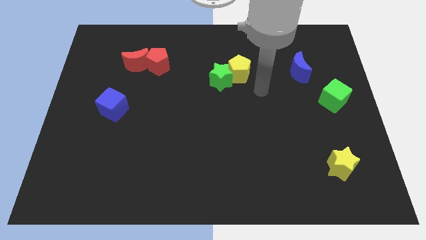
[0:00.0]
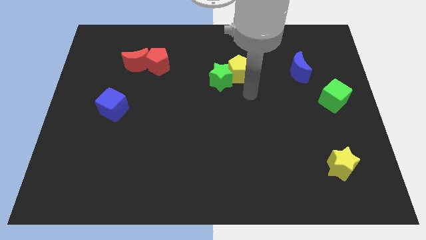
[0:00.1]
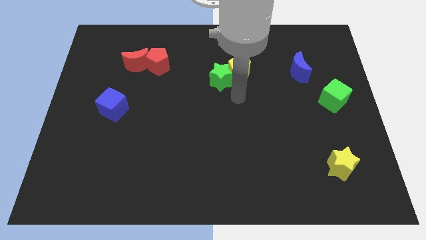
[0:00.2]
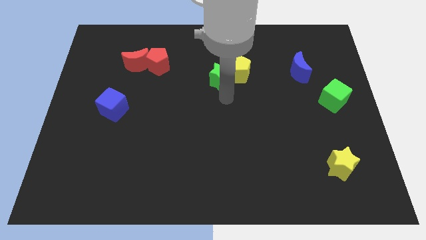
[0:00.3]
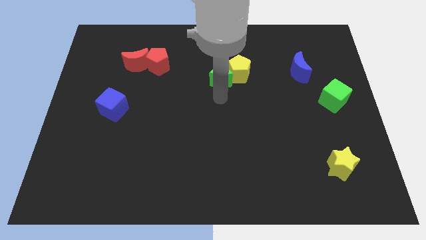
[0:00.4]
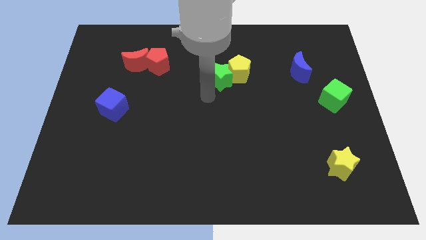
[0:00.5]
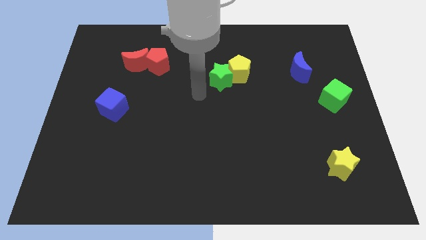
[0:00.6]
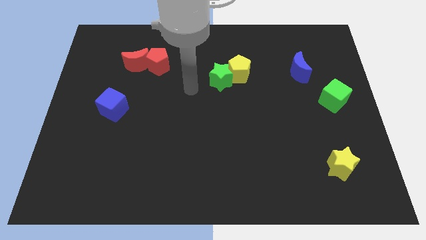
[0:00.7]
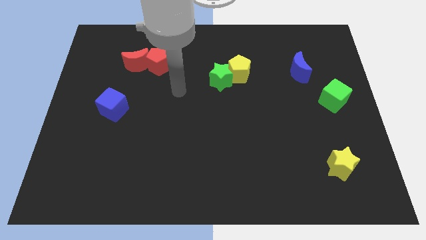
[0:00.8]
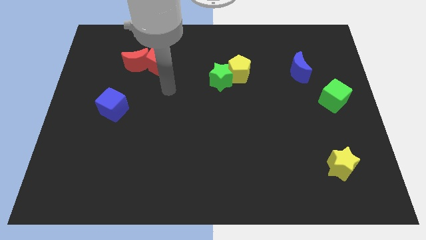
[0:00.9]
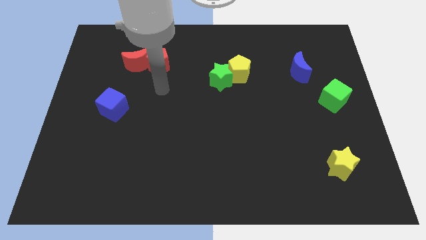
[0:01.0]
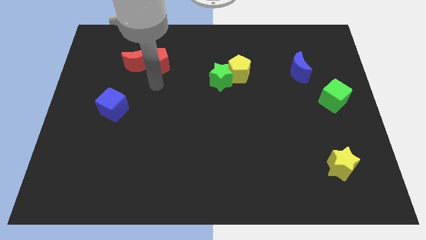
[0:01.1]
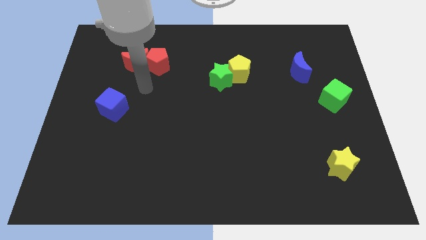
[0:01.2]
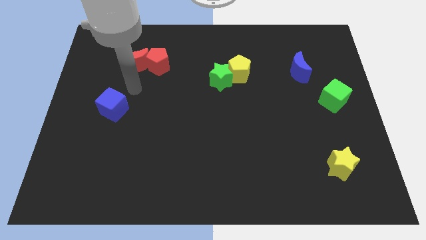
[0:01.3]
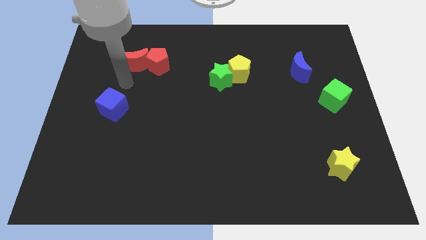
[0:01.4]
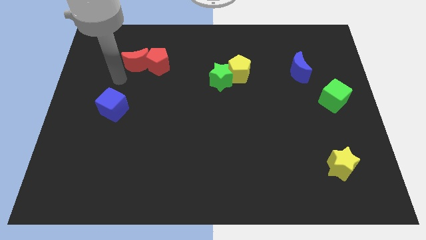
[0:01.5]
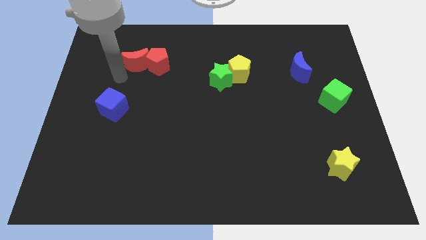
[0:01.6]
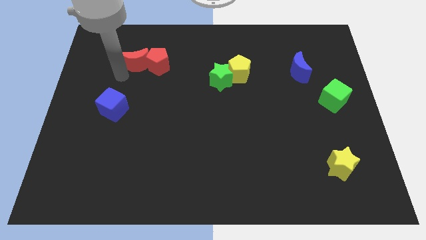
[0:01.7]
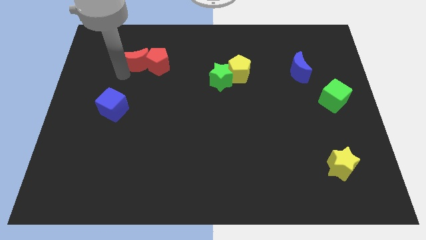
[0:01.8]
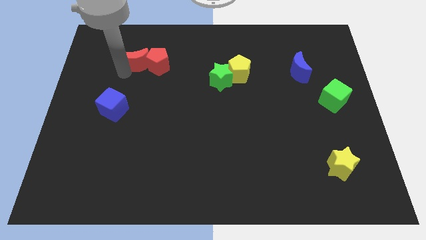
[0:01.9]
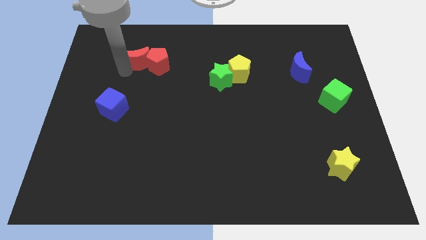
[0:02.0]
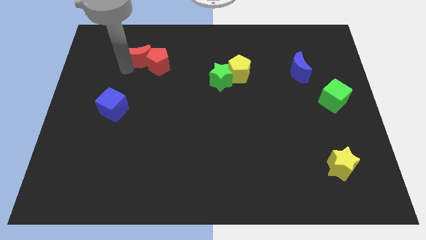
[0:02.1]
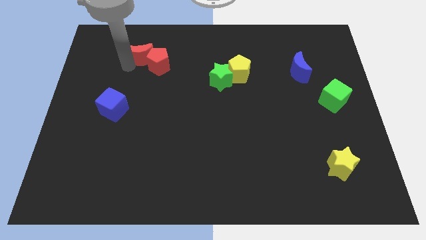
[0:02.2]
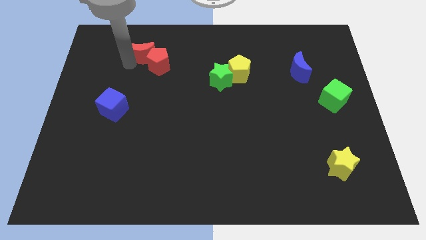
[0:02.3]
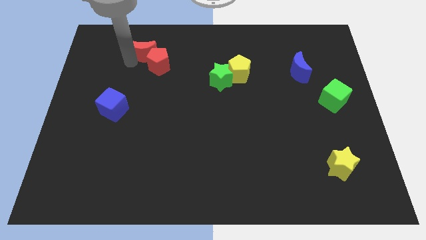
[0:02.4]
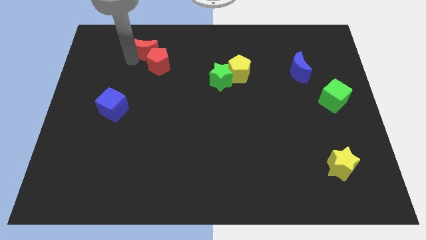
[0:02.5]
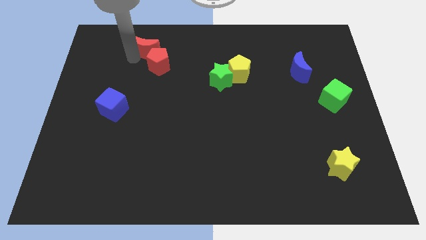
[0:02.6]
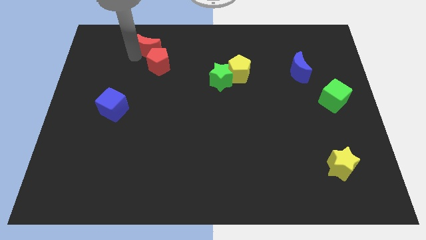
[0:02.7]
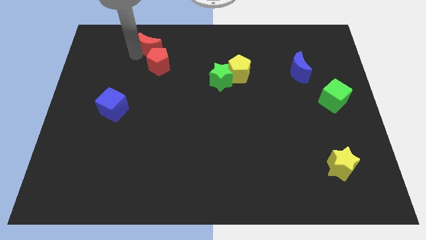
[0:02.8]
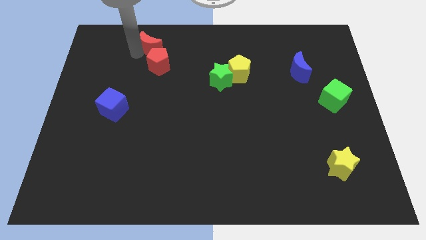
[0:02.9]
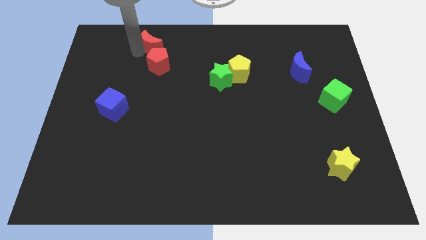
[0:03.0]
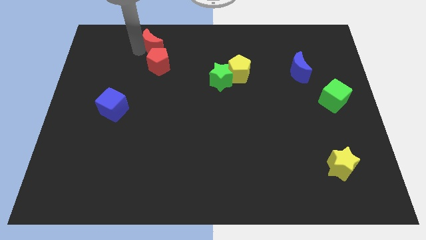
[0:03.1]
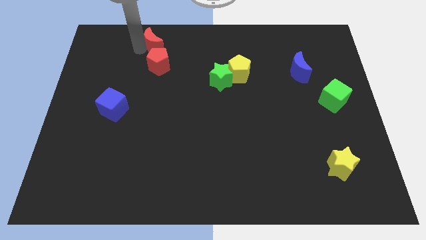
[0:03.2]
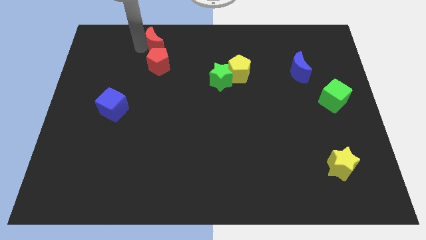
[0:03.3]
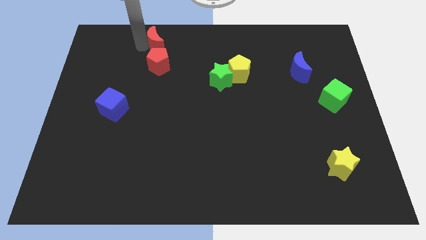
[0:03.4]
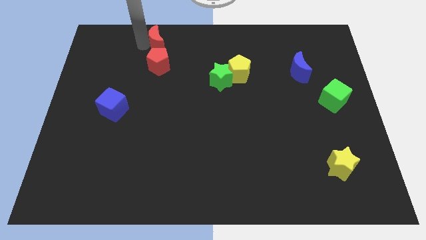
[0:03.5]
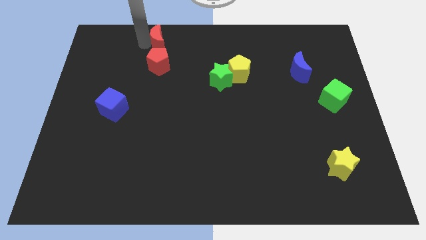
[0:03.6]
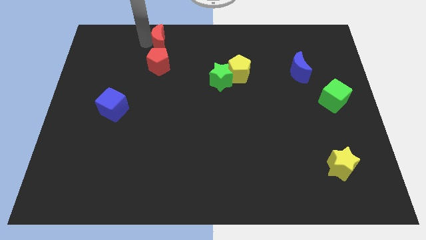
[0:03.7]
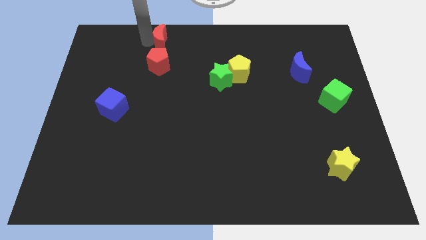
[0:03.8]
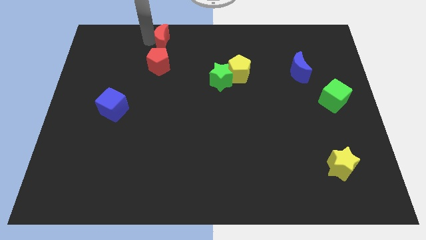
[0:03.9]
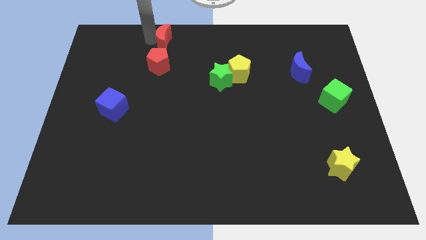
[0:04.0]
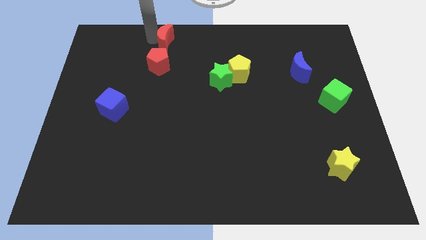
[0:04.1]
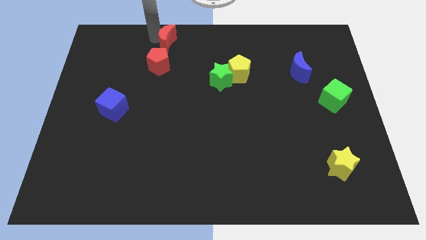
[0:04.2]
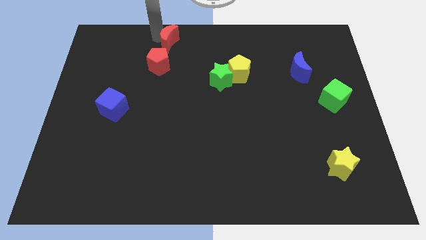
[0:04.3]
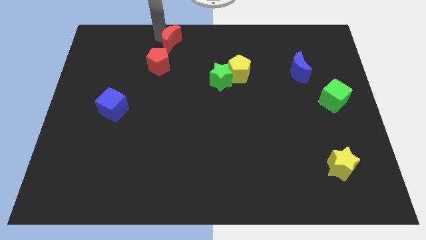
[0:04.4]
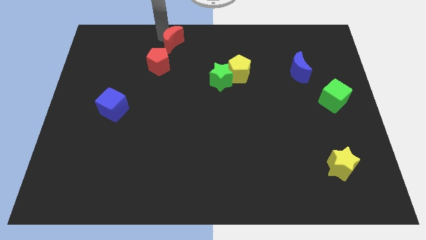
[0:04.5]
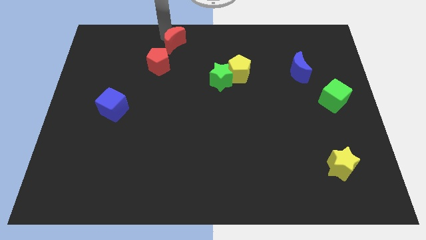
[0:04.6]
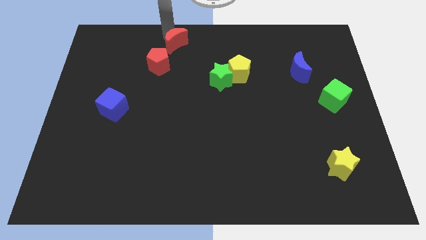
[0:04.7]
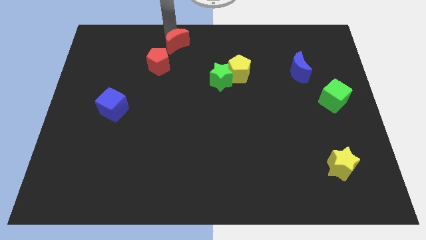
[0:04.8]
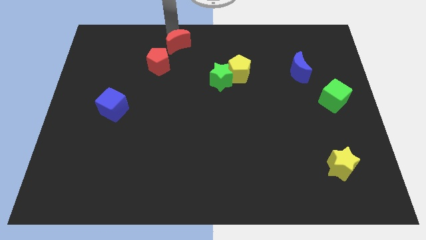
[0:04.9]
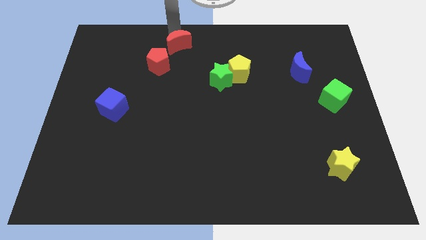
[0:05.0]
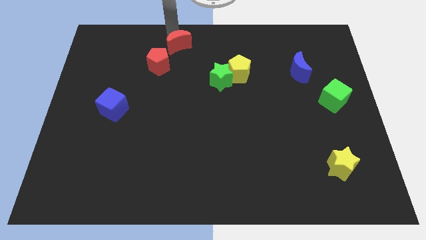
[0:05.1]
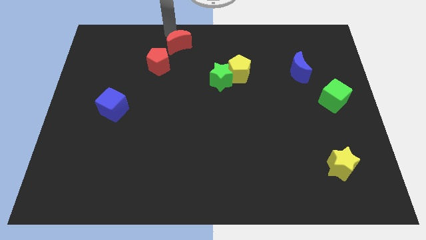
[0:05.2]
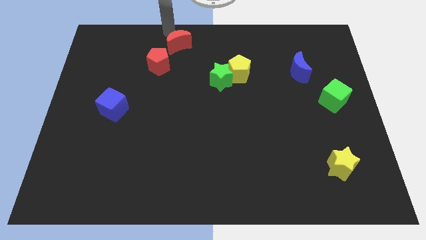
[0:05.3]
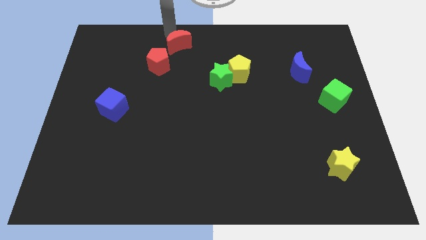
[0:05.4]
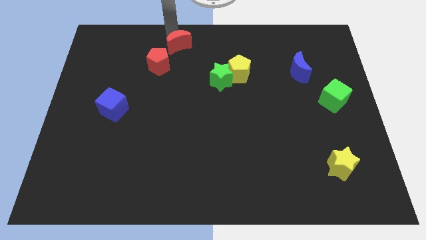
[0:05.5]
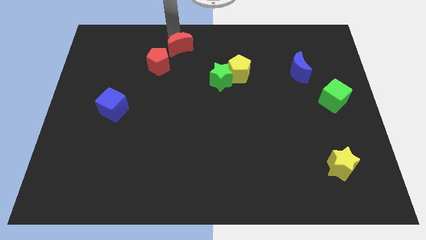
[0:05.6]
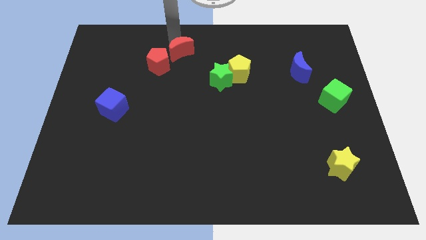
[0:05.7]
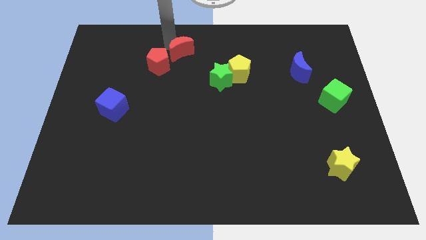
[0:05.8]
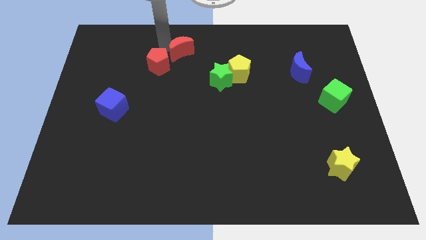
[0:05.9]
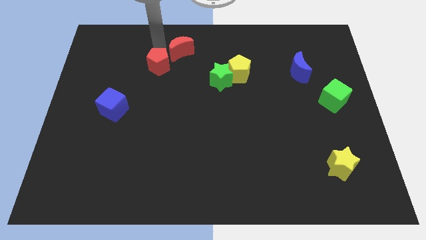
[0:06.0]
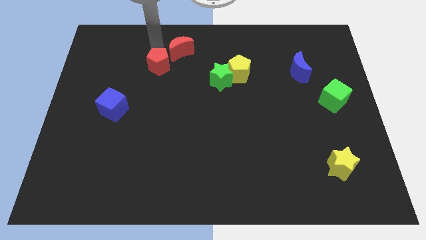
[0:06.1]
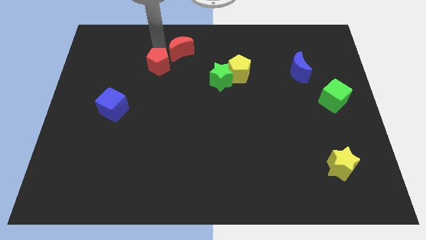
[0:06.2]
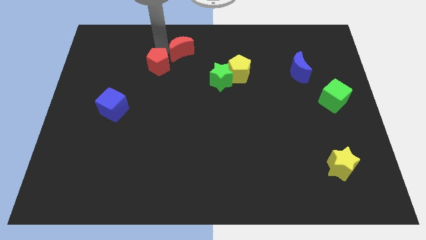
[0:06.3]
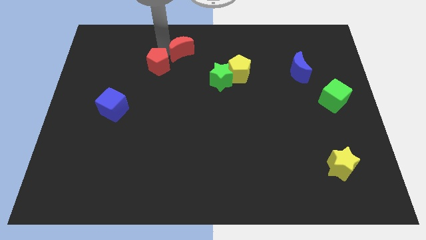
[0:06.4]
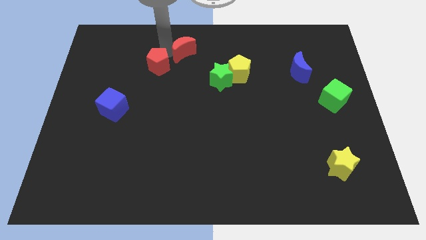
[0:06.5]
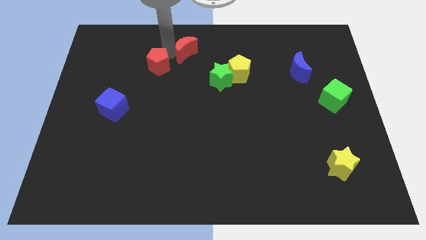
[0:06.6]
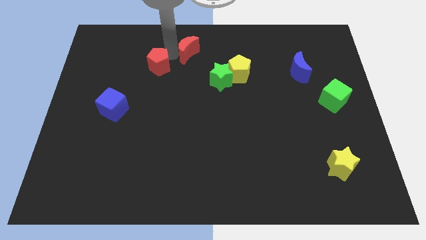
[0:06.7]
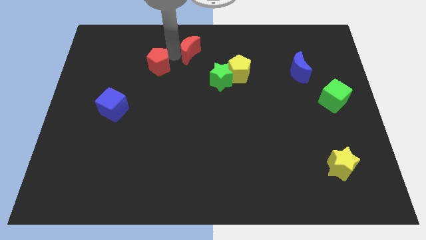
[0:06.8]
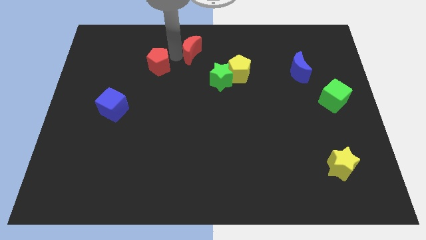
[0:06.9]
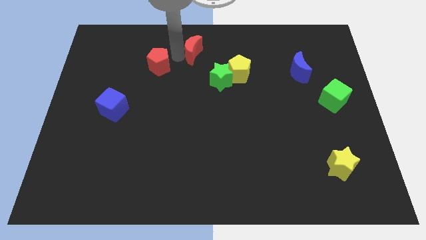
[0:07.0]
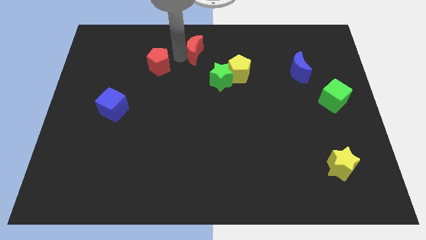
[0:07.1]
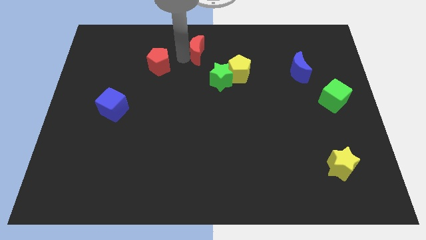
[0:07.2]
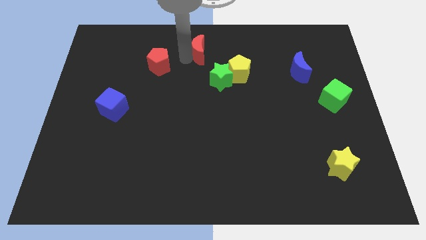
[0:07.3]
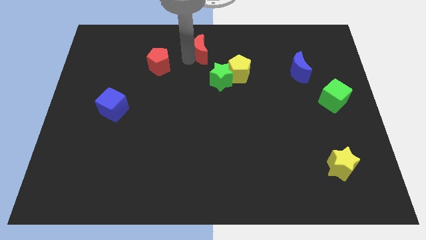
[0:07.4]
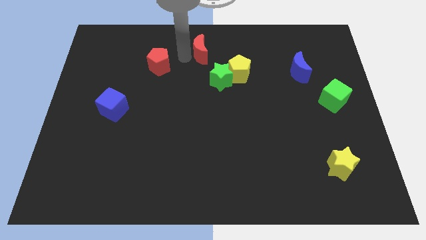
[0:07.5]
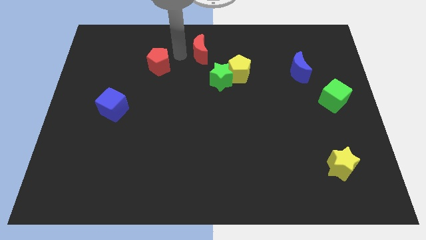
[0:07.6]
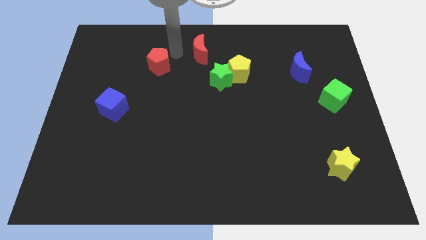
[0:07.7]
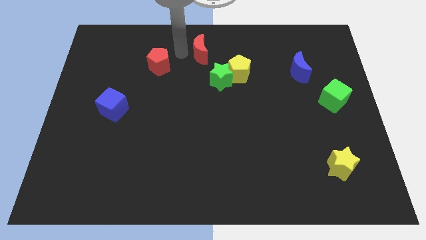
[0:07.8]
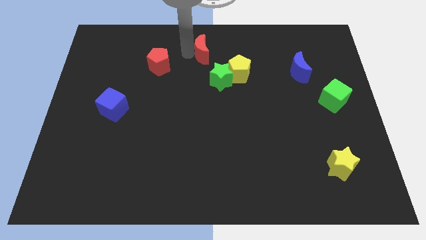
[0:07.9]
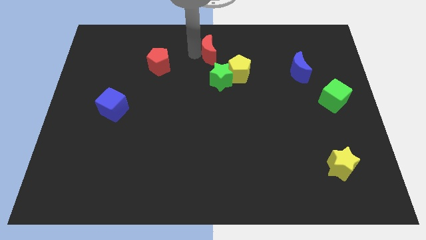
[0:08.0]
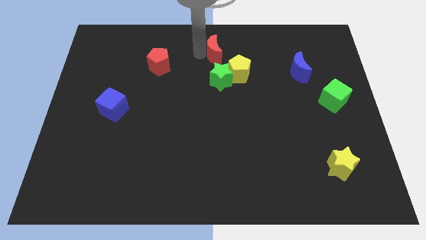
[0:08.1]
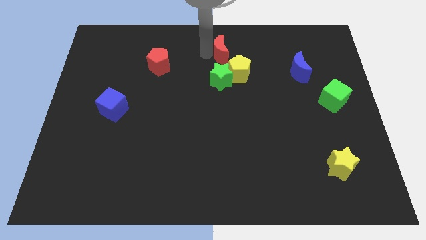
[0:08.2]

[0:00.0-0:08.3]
push the red moon to the right

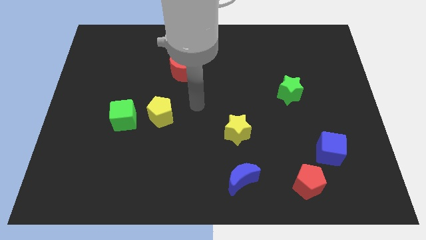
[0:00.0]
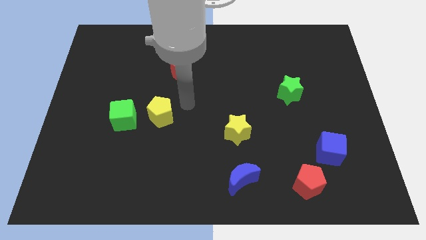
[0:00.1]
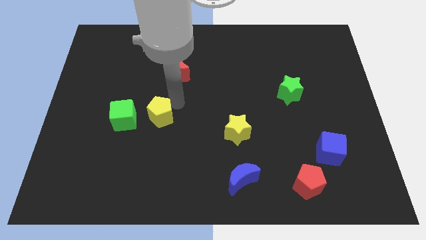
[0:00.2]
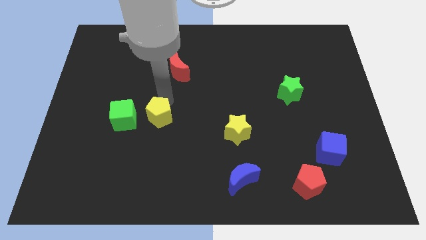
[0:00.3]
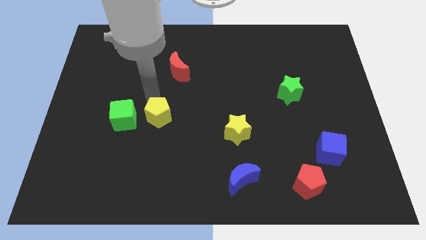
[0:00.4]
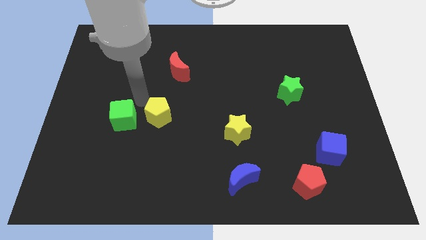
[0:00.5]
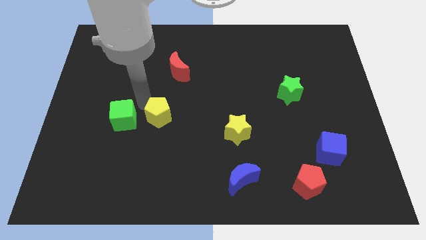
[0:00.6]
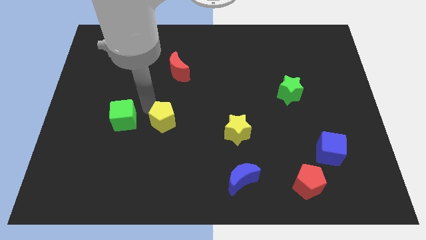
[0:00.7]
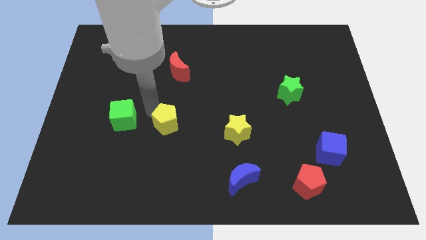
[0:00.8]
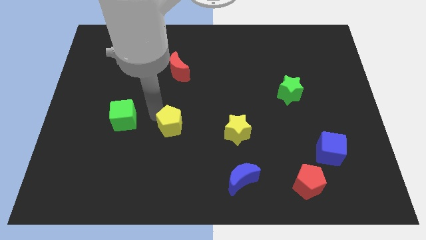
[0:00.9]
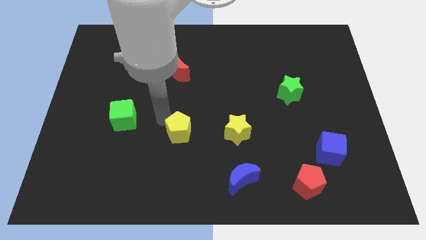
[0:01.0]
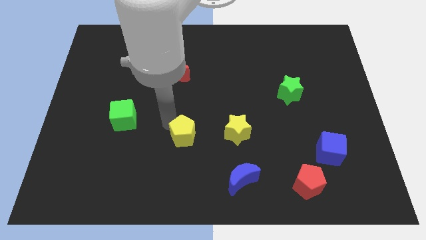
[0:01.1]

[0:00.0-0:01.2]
slightly push the yellow pentagon diagonally downwards and right
